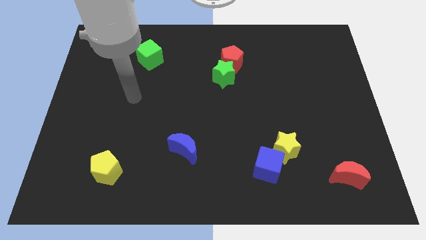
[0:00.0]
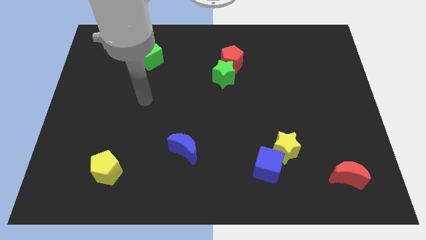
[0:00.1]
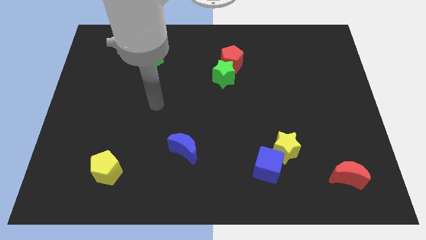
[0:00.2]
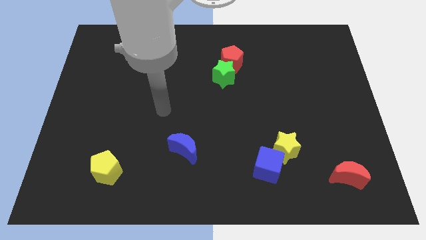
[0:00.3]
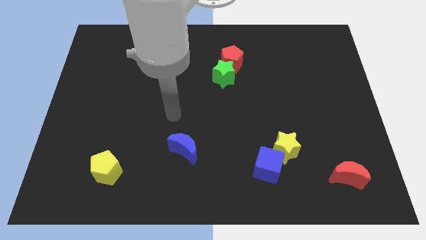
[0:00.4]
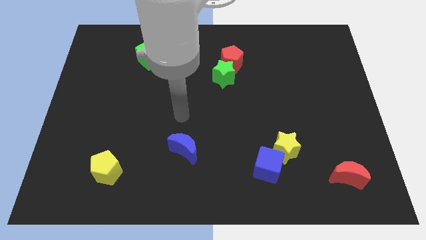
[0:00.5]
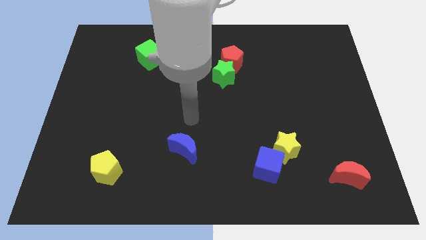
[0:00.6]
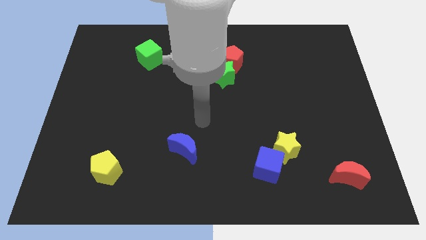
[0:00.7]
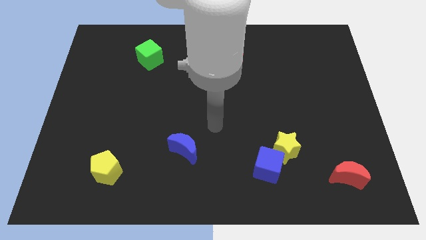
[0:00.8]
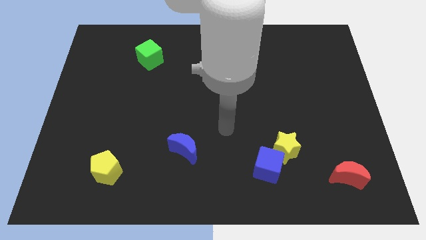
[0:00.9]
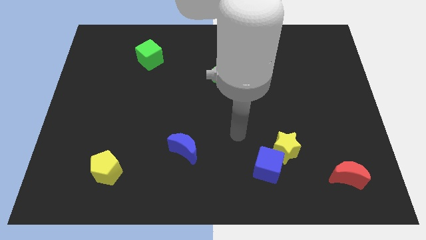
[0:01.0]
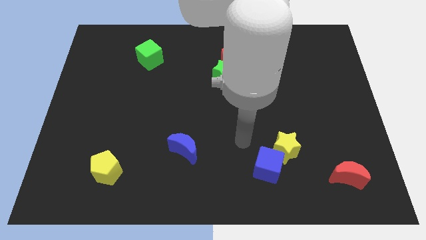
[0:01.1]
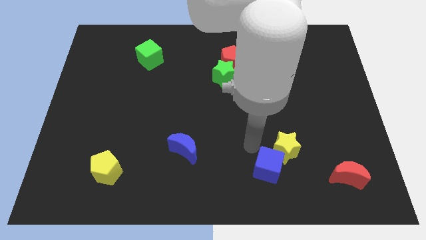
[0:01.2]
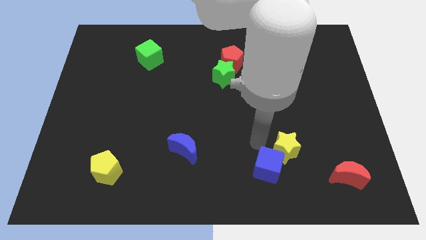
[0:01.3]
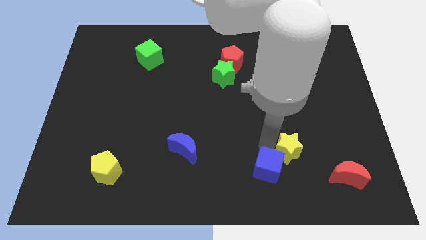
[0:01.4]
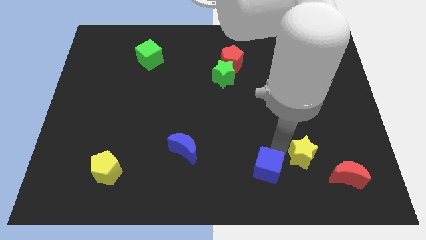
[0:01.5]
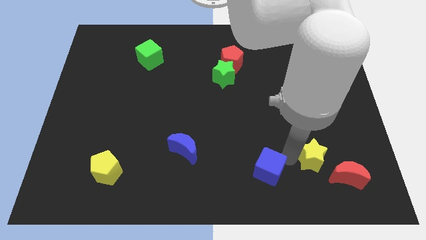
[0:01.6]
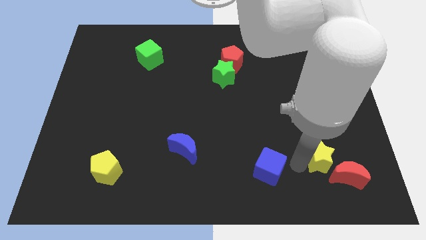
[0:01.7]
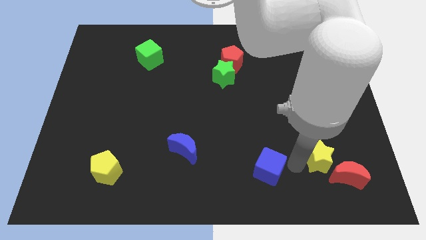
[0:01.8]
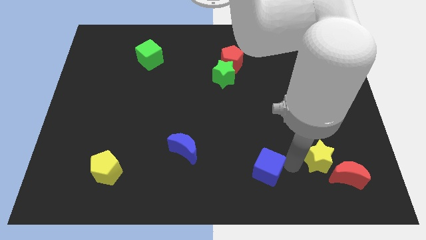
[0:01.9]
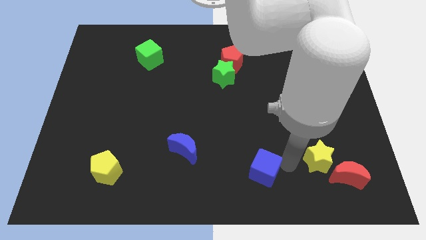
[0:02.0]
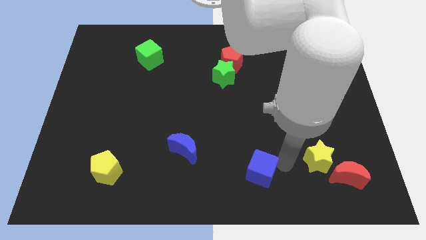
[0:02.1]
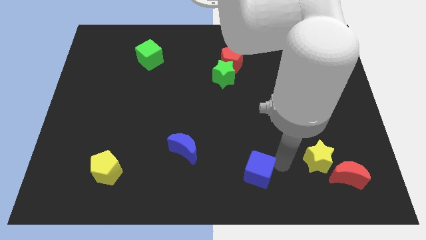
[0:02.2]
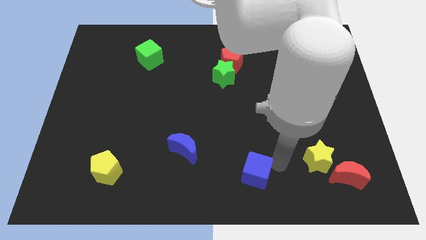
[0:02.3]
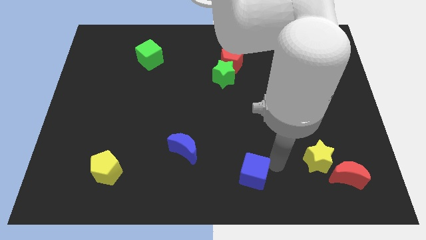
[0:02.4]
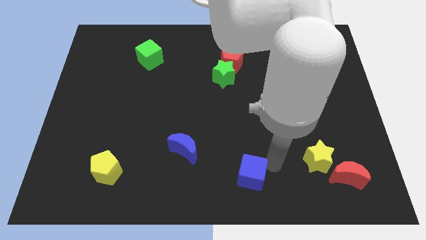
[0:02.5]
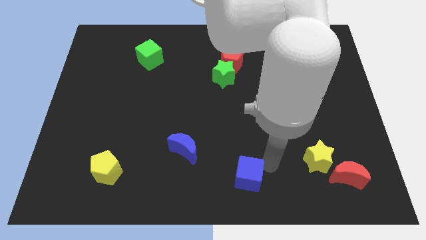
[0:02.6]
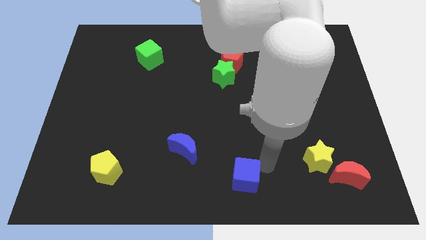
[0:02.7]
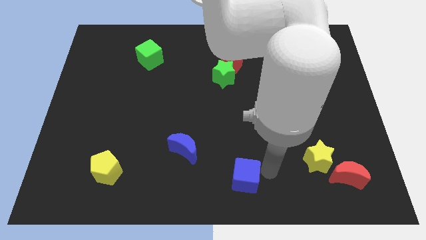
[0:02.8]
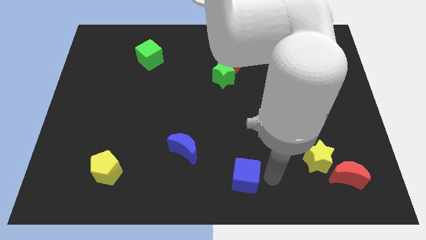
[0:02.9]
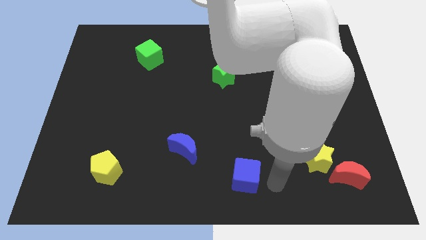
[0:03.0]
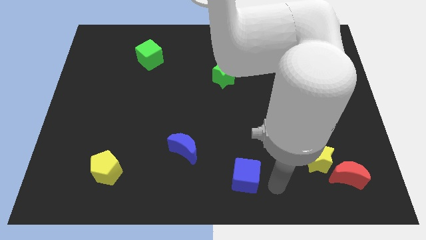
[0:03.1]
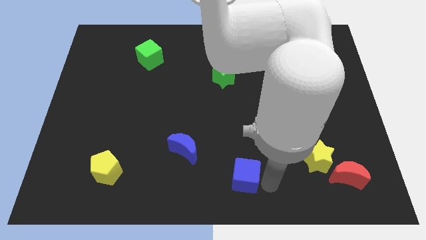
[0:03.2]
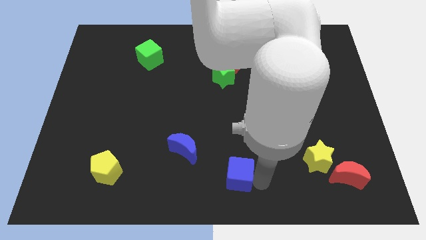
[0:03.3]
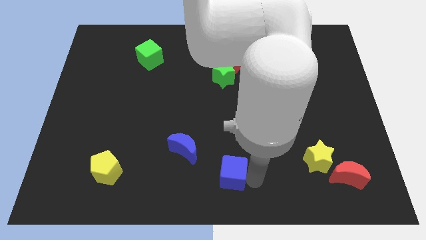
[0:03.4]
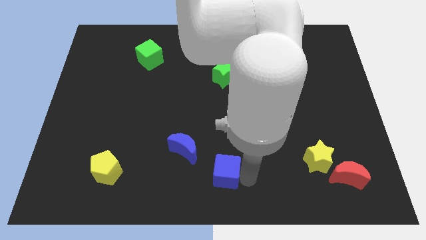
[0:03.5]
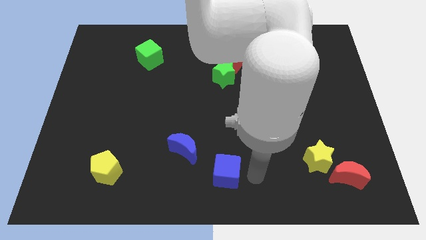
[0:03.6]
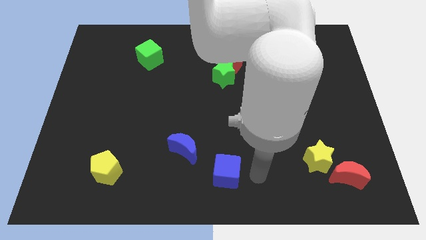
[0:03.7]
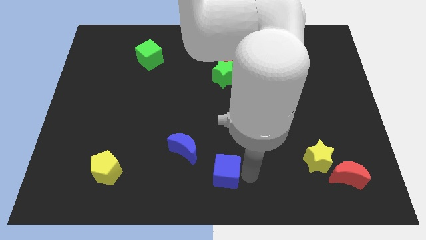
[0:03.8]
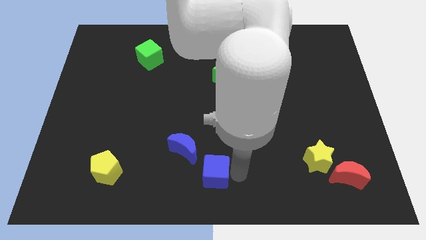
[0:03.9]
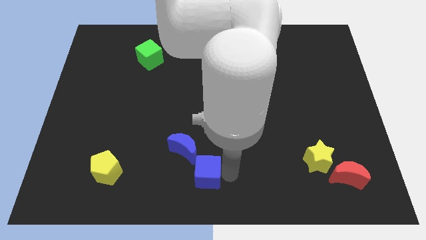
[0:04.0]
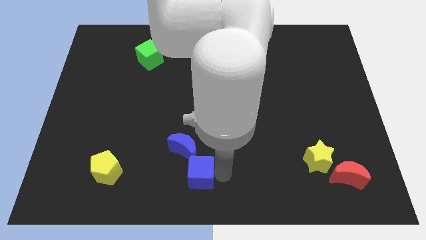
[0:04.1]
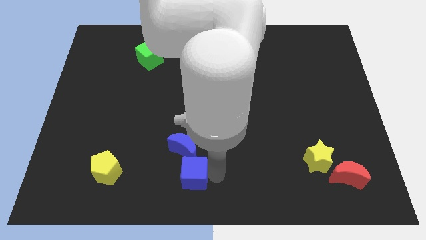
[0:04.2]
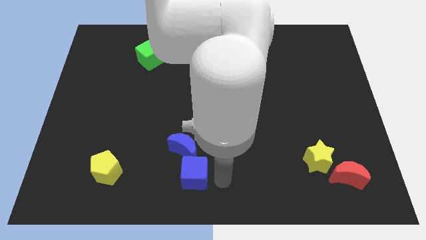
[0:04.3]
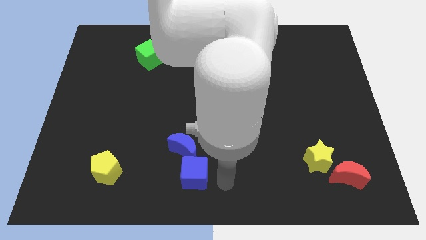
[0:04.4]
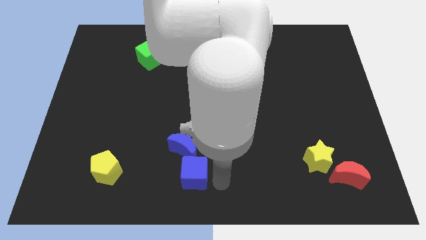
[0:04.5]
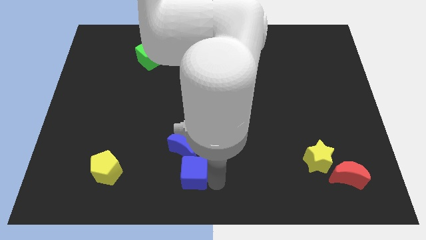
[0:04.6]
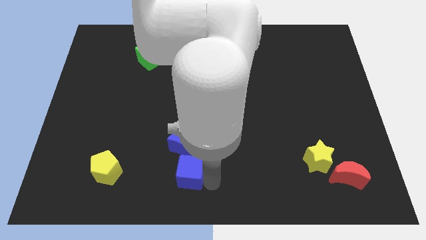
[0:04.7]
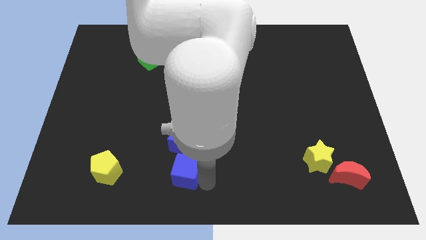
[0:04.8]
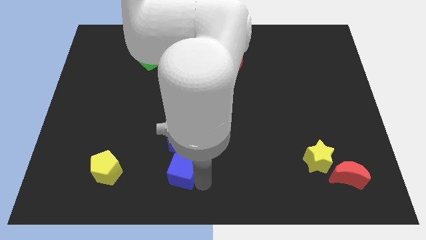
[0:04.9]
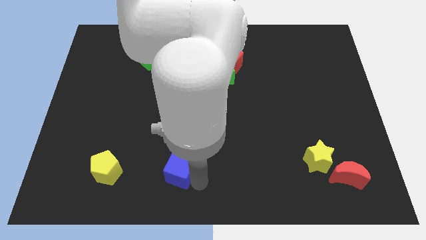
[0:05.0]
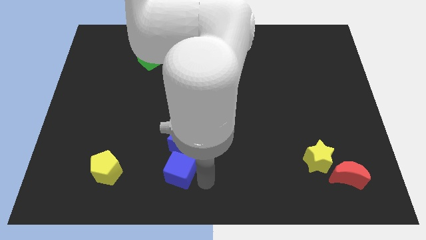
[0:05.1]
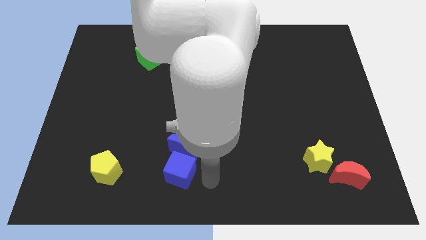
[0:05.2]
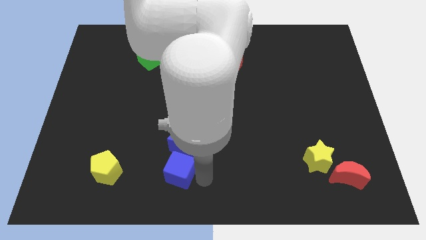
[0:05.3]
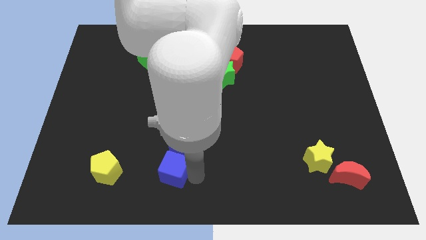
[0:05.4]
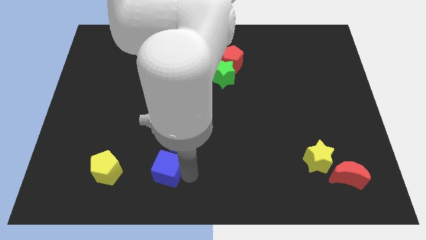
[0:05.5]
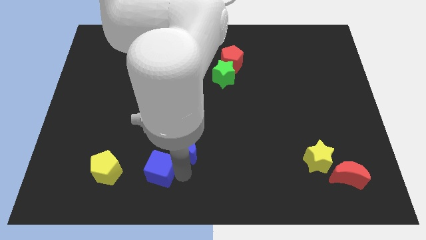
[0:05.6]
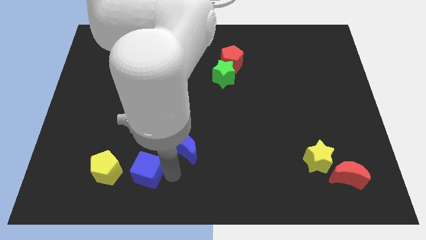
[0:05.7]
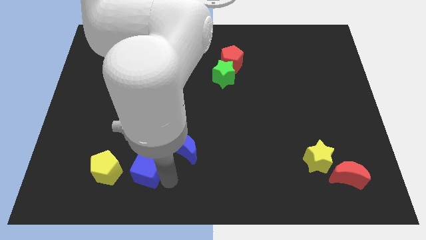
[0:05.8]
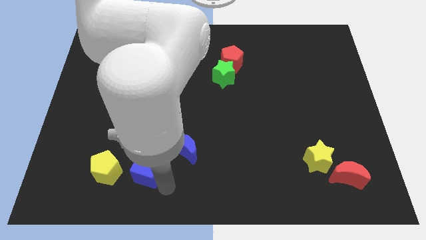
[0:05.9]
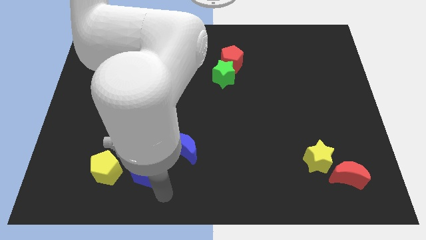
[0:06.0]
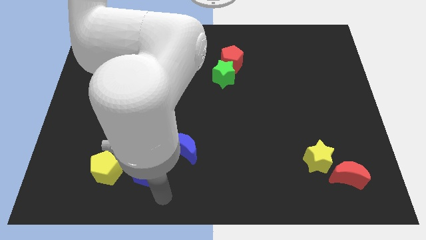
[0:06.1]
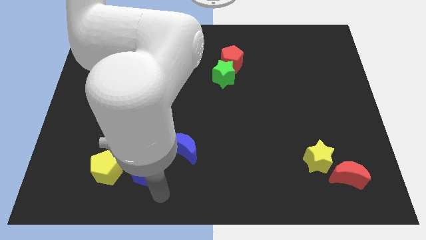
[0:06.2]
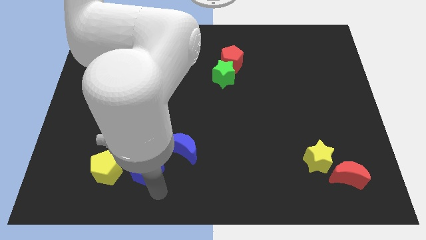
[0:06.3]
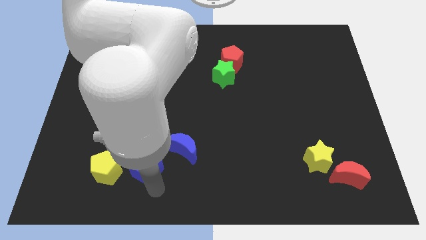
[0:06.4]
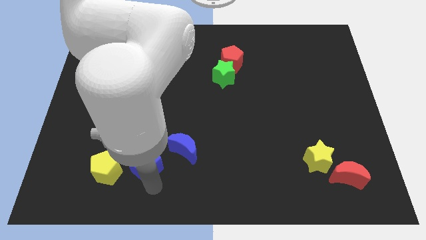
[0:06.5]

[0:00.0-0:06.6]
slide the blue cube diagonally up and to the right of the yellow pentagon

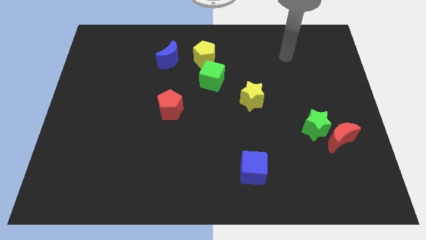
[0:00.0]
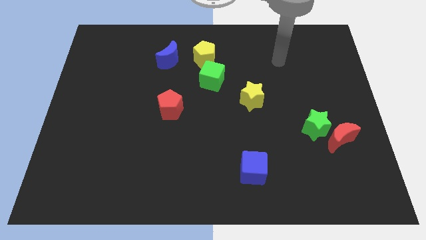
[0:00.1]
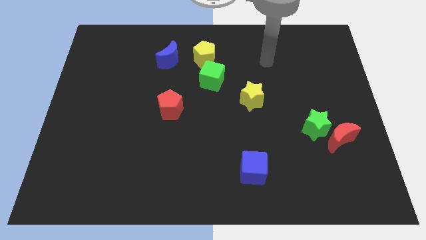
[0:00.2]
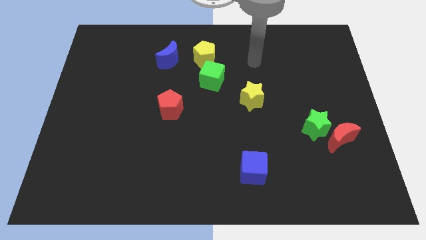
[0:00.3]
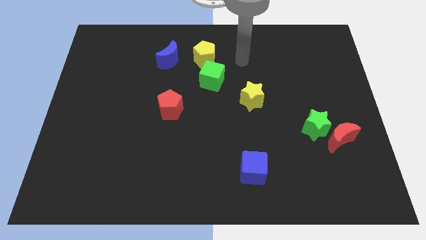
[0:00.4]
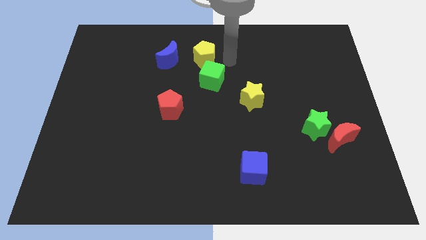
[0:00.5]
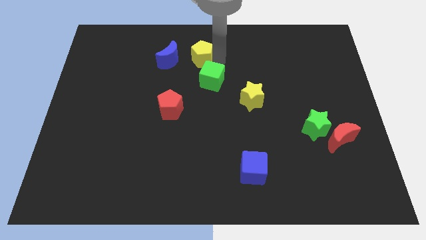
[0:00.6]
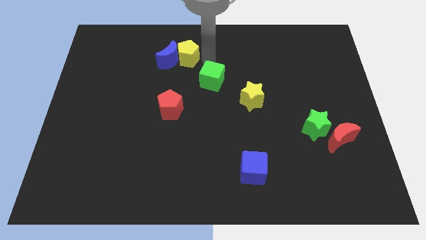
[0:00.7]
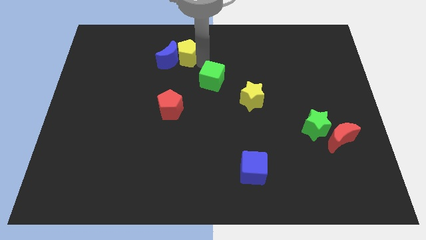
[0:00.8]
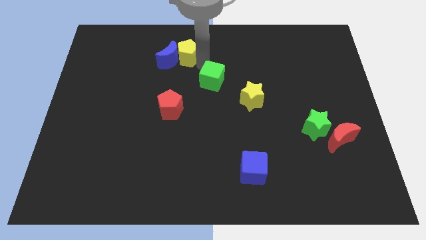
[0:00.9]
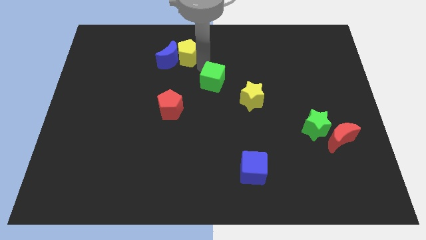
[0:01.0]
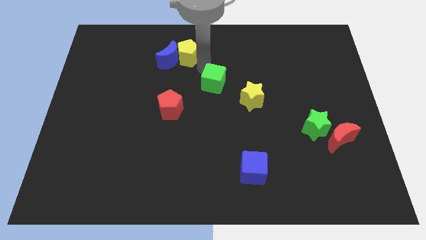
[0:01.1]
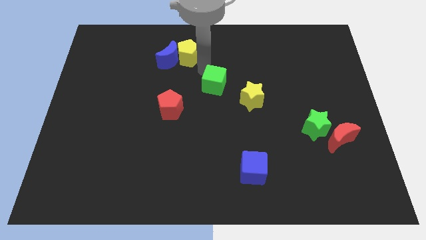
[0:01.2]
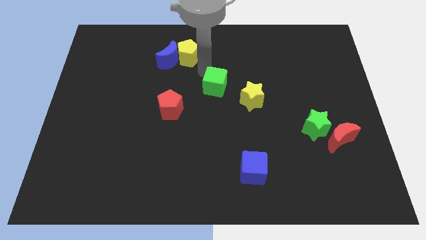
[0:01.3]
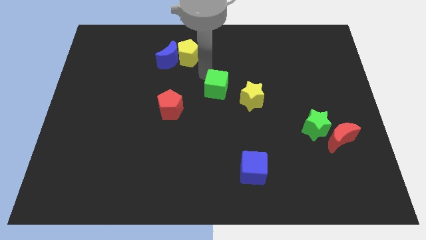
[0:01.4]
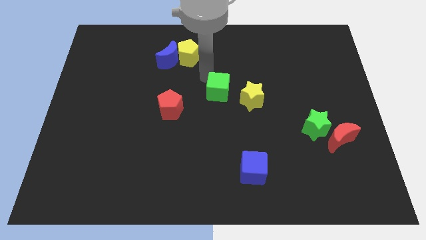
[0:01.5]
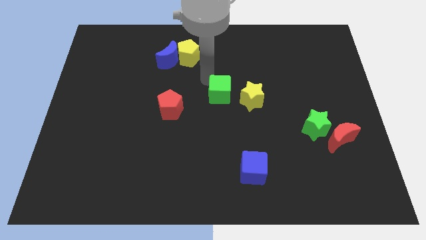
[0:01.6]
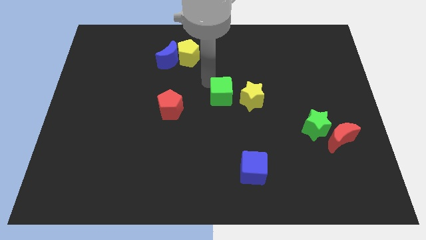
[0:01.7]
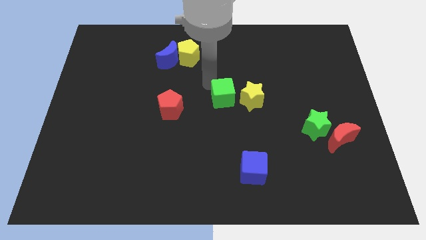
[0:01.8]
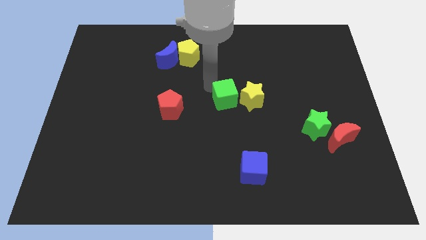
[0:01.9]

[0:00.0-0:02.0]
put the green cube to the bottom left of the yellow star
